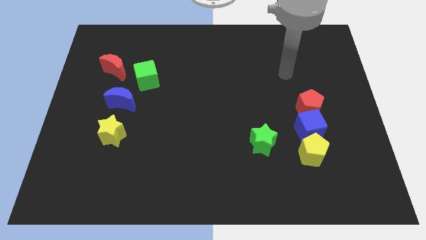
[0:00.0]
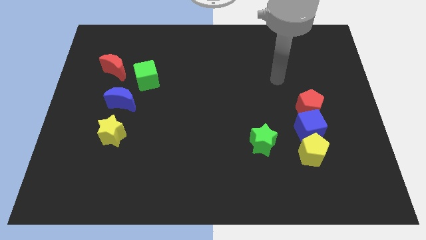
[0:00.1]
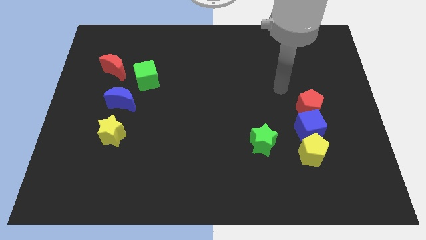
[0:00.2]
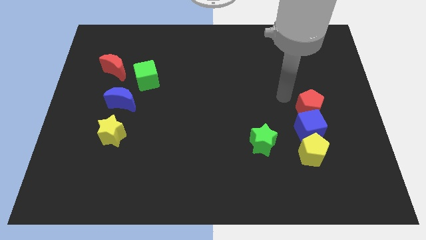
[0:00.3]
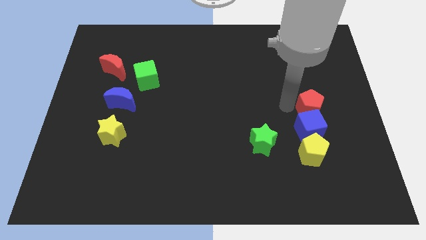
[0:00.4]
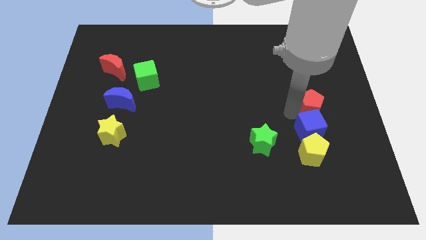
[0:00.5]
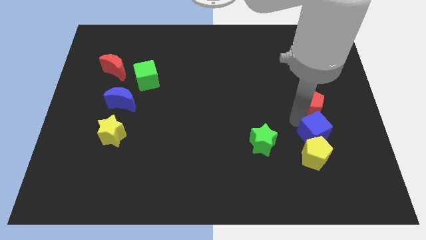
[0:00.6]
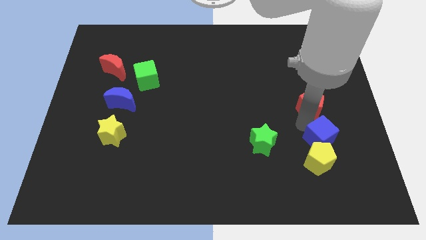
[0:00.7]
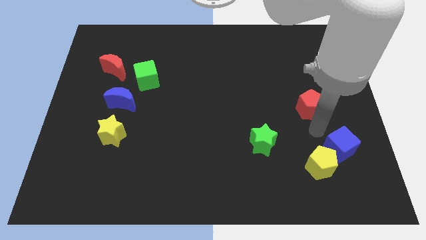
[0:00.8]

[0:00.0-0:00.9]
separate the red pentagon from the blue cube

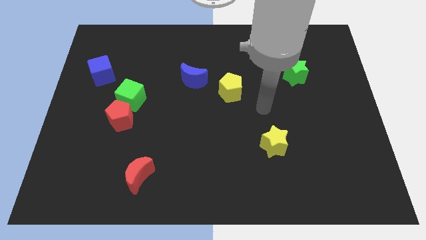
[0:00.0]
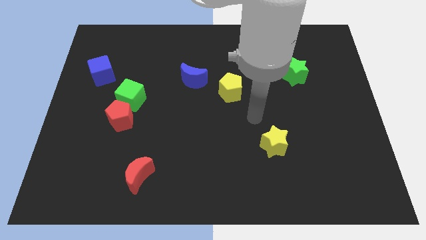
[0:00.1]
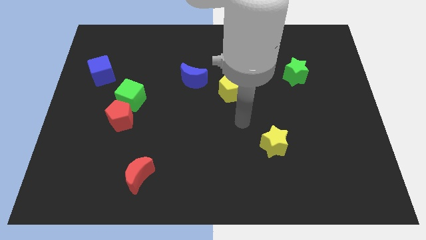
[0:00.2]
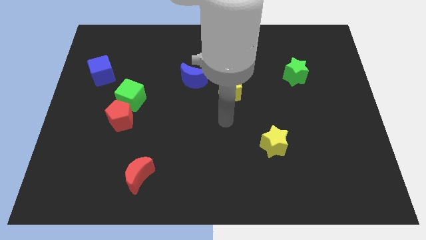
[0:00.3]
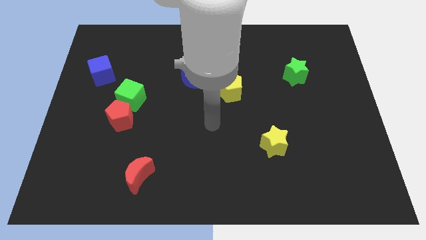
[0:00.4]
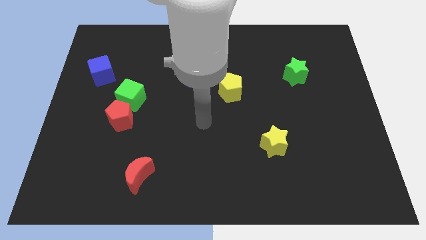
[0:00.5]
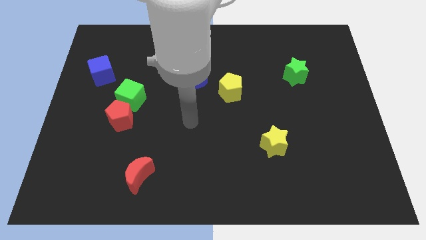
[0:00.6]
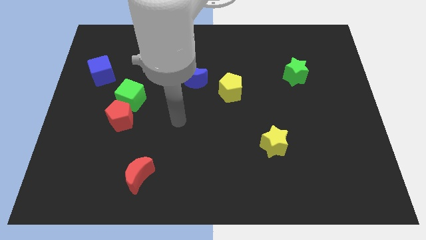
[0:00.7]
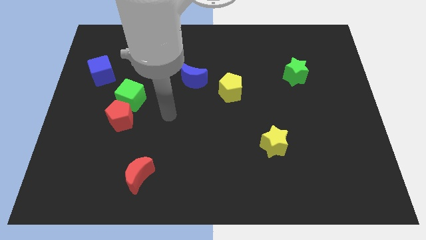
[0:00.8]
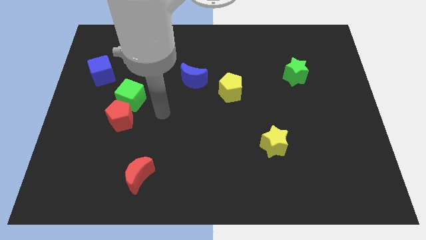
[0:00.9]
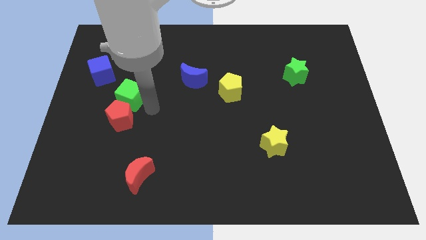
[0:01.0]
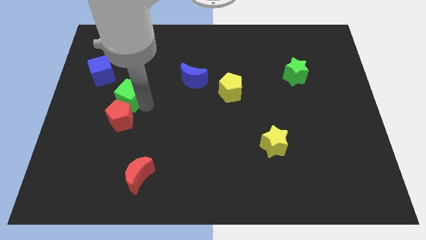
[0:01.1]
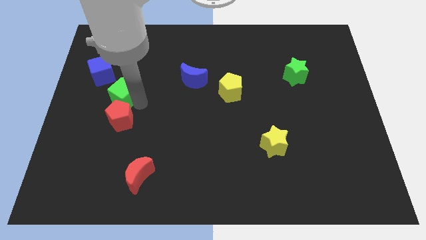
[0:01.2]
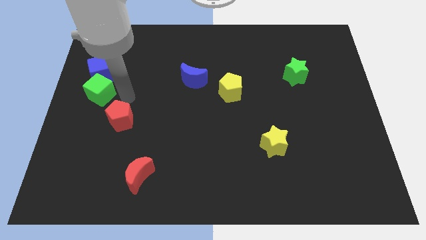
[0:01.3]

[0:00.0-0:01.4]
separate the red pentagon from the green cube

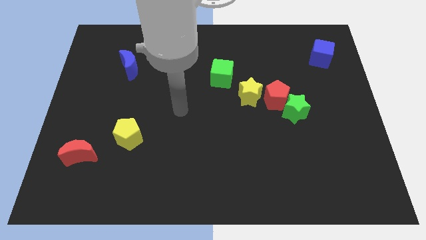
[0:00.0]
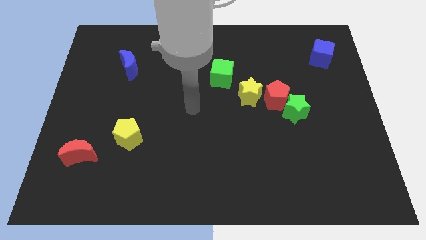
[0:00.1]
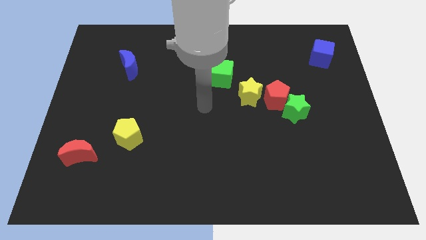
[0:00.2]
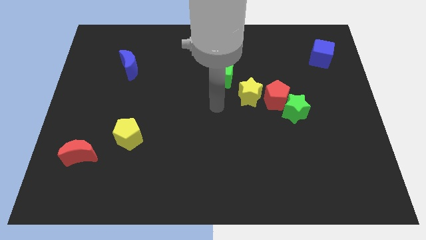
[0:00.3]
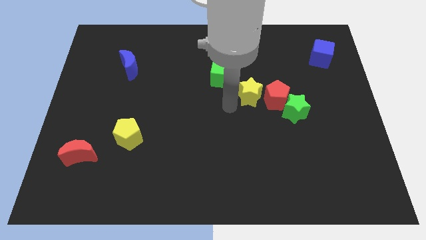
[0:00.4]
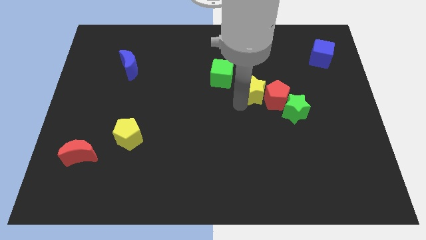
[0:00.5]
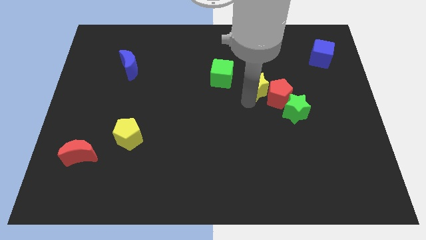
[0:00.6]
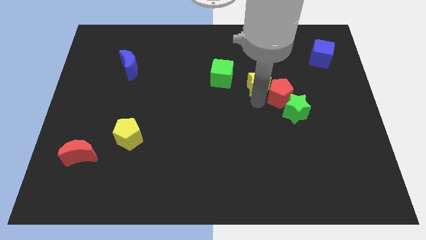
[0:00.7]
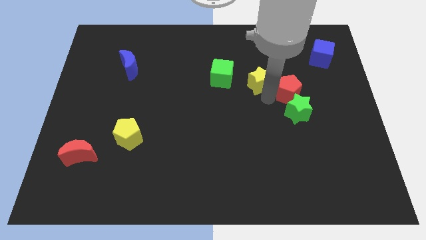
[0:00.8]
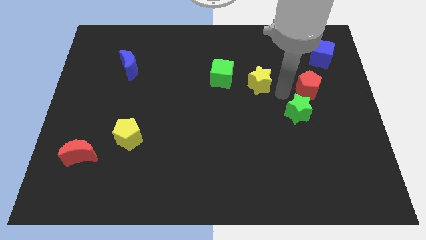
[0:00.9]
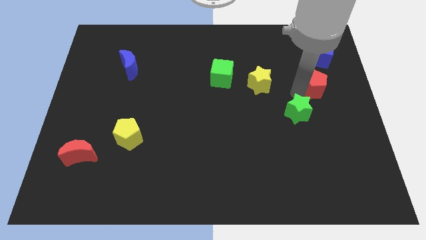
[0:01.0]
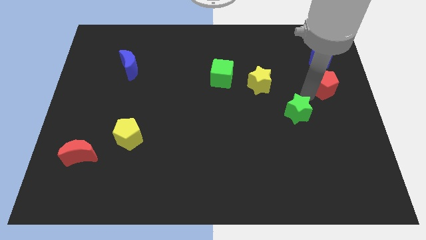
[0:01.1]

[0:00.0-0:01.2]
move the green star away from the red pentagon

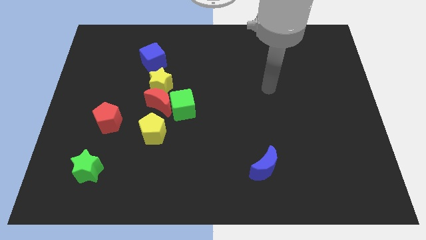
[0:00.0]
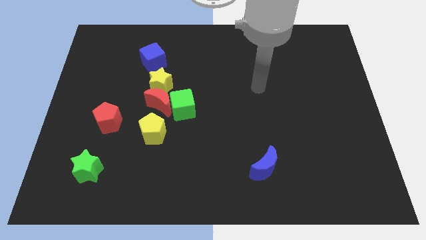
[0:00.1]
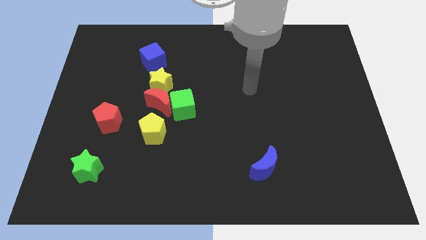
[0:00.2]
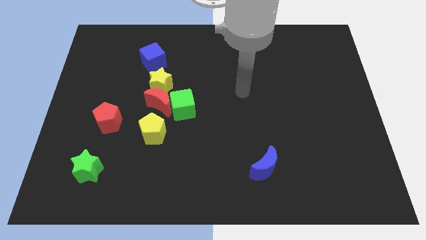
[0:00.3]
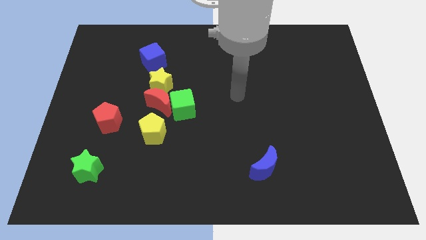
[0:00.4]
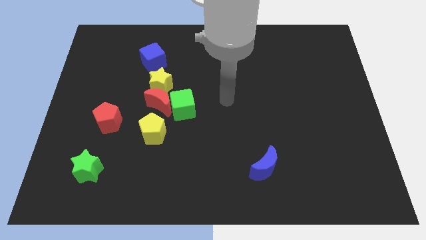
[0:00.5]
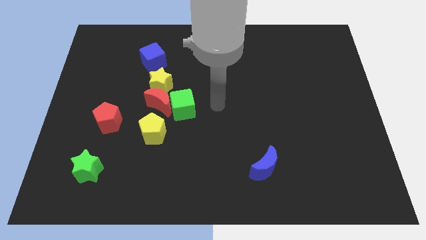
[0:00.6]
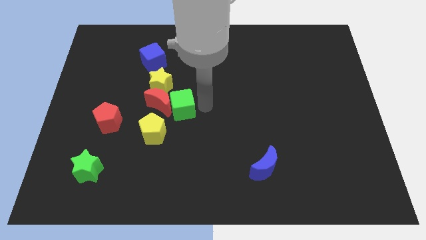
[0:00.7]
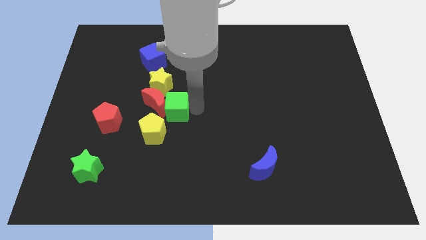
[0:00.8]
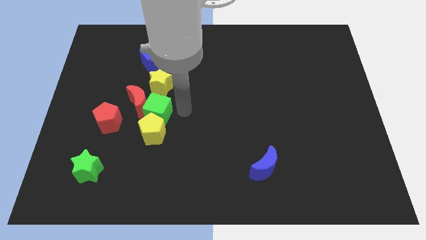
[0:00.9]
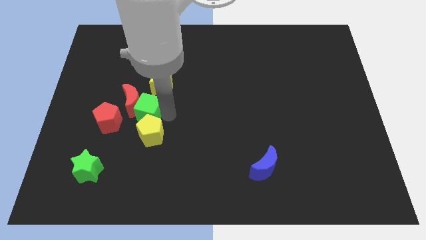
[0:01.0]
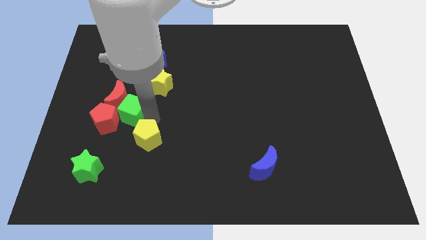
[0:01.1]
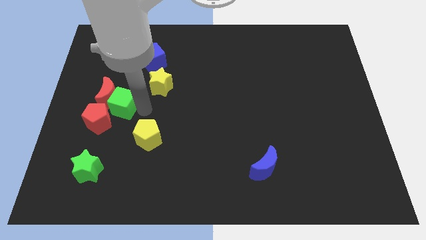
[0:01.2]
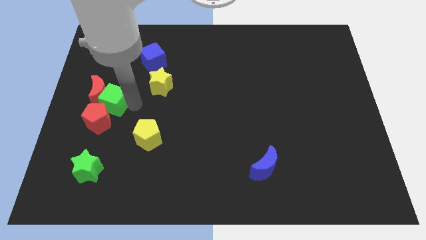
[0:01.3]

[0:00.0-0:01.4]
move the red moon away from the green cube, yellow star, and yellow pentagon

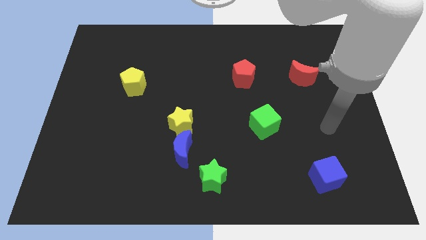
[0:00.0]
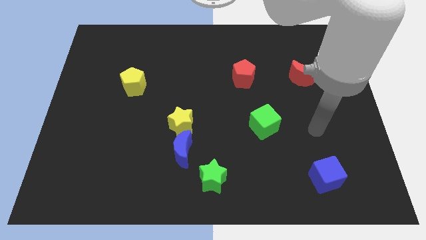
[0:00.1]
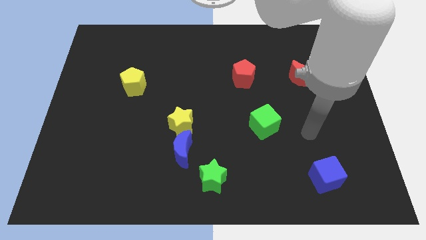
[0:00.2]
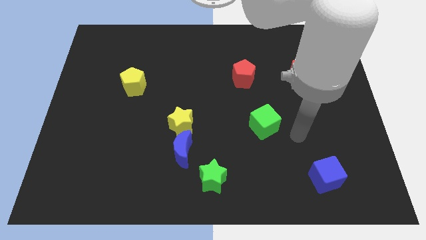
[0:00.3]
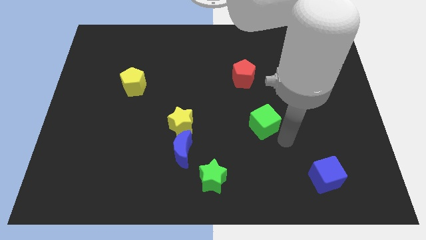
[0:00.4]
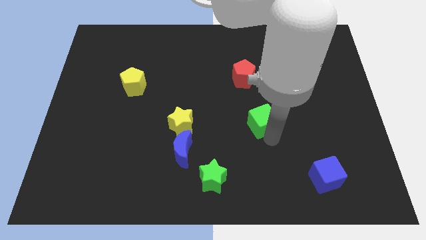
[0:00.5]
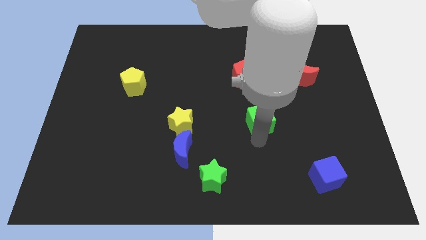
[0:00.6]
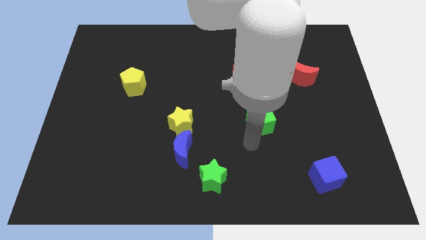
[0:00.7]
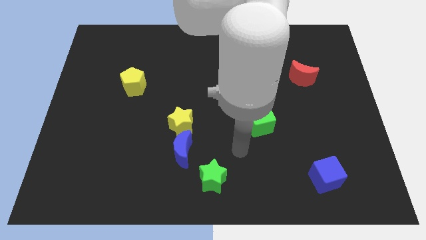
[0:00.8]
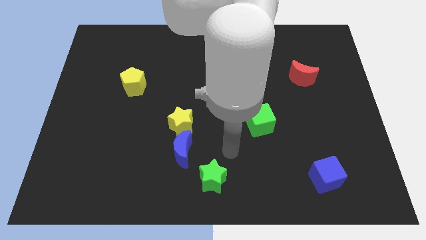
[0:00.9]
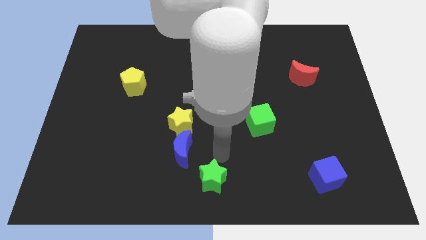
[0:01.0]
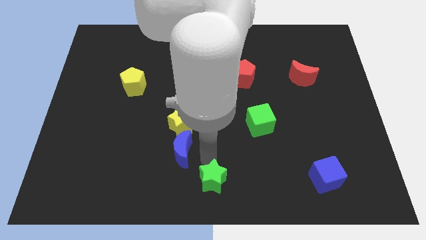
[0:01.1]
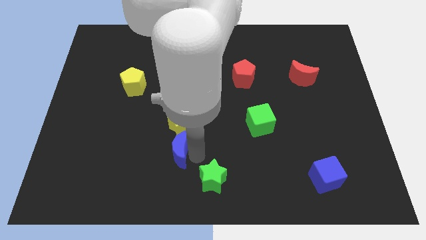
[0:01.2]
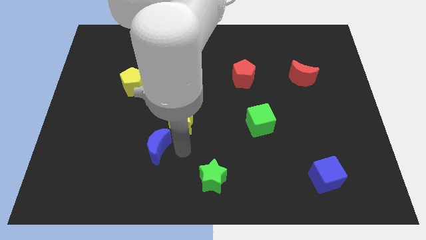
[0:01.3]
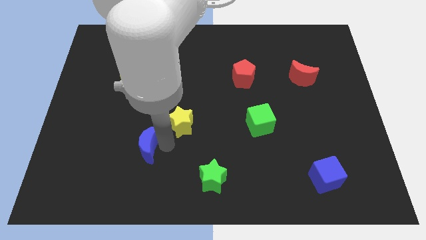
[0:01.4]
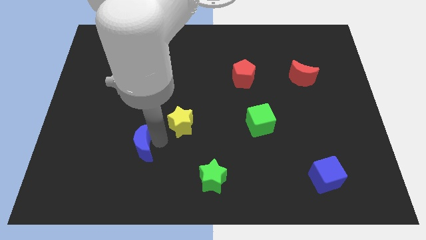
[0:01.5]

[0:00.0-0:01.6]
separate the yellow star from the blue moon

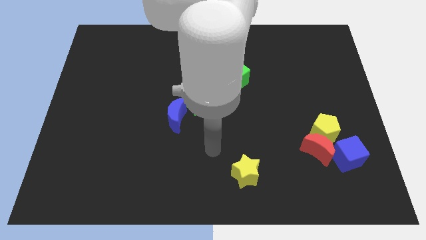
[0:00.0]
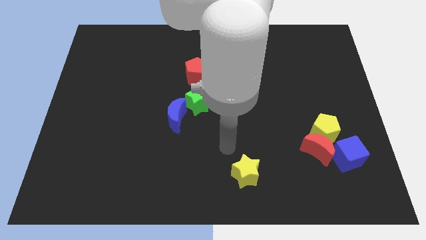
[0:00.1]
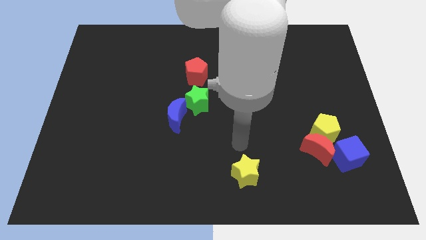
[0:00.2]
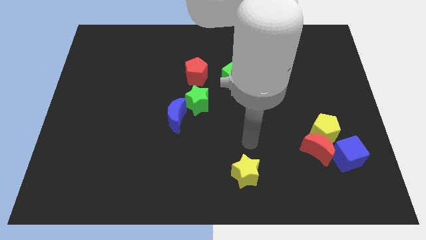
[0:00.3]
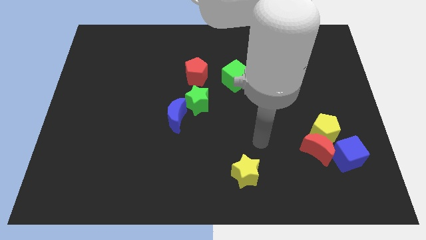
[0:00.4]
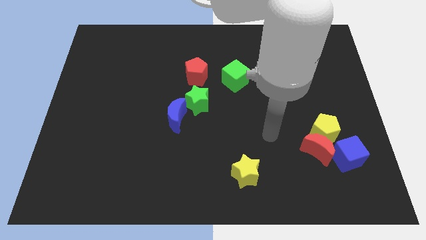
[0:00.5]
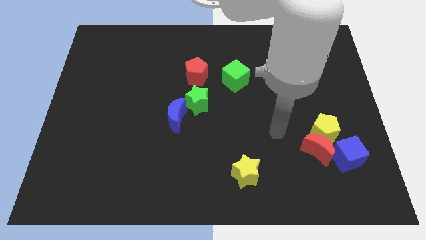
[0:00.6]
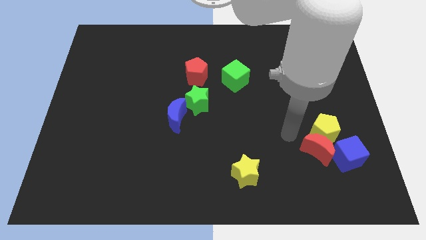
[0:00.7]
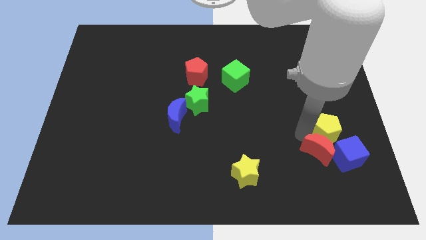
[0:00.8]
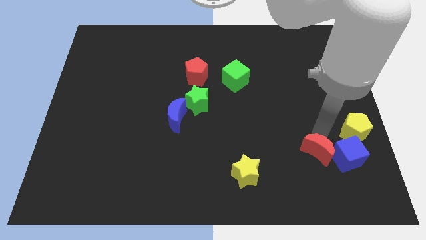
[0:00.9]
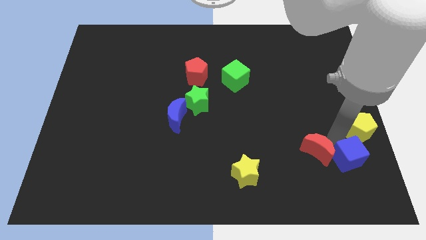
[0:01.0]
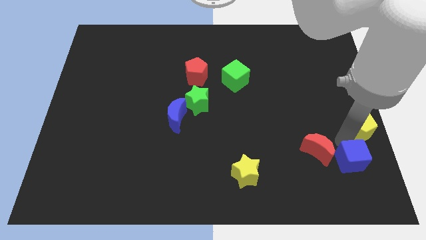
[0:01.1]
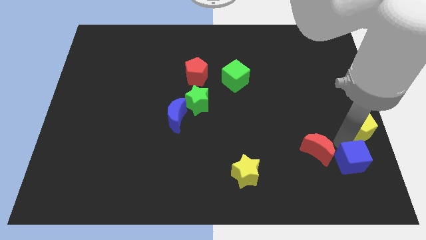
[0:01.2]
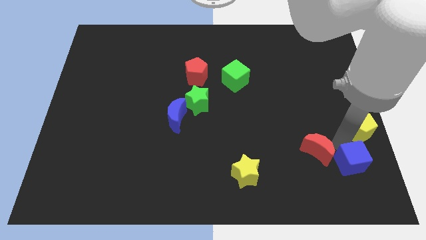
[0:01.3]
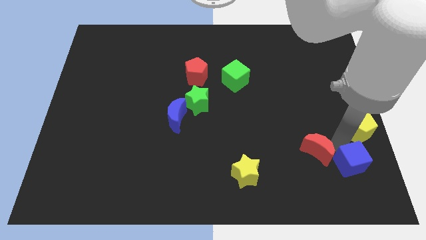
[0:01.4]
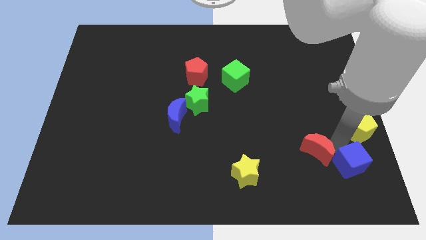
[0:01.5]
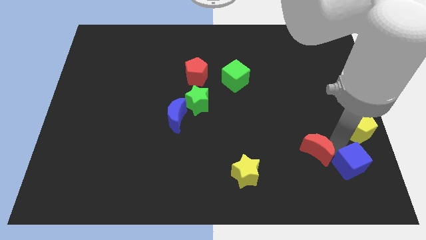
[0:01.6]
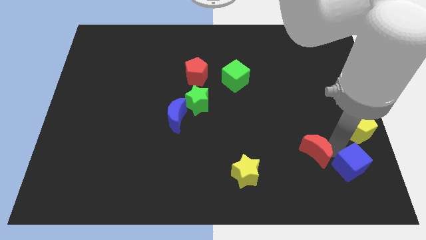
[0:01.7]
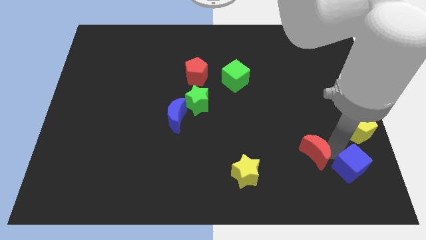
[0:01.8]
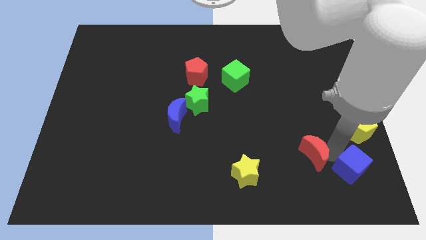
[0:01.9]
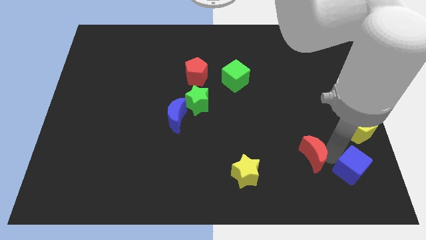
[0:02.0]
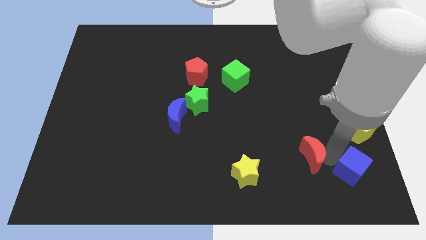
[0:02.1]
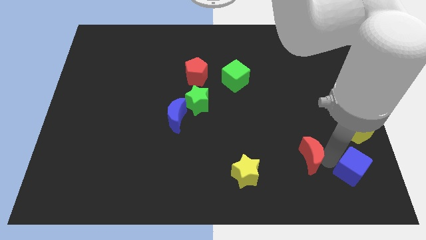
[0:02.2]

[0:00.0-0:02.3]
pull the red moon apart from the yellow pentagon and blue cube

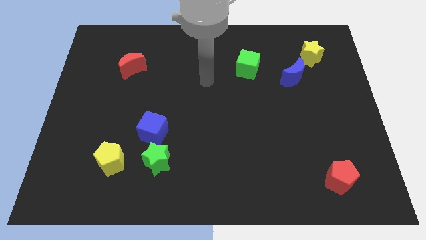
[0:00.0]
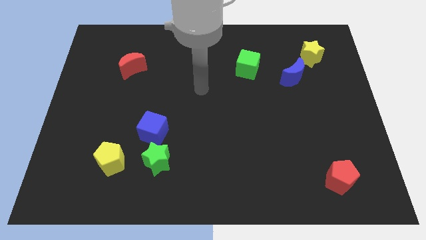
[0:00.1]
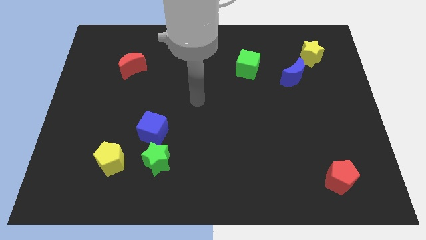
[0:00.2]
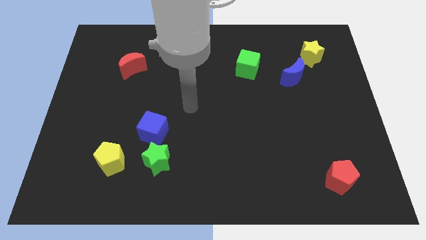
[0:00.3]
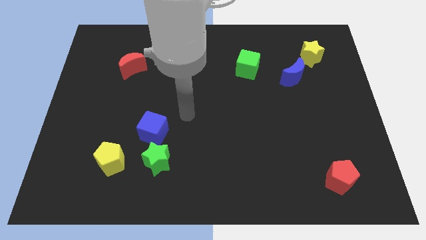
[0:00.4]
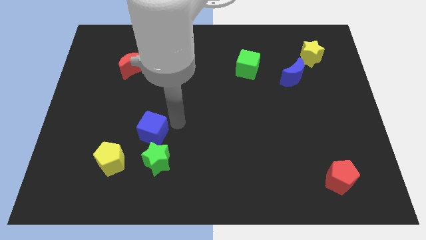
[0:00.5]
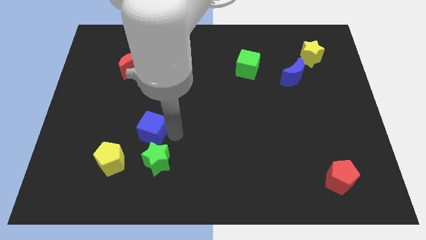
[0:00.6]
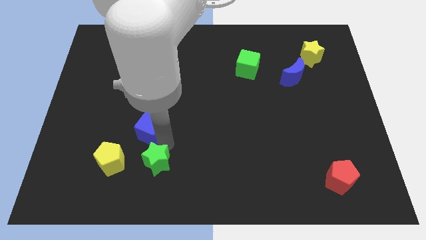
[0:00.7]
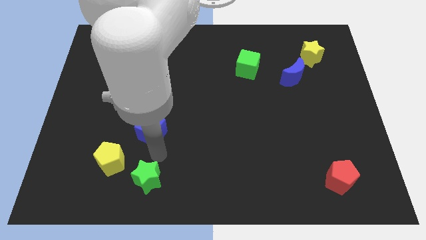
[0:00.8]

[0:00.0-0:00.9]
move the blue cube away from the green star
